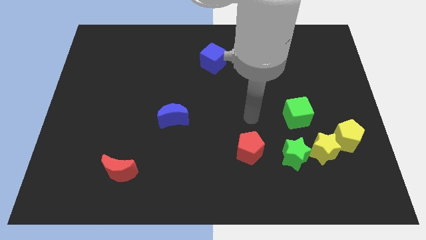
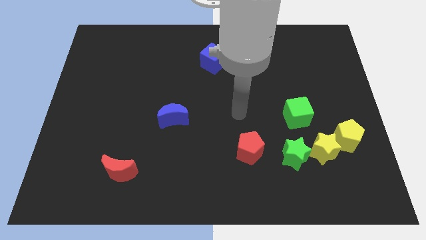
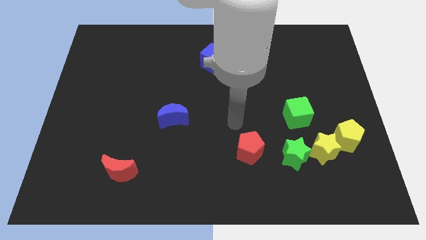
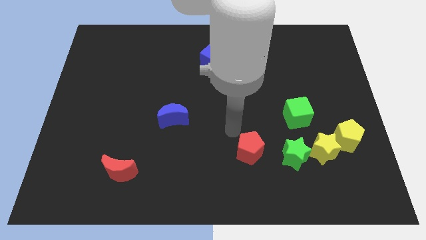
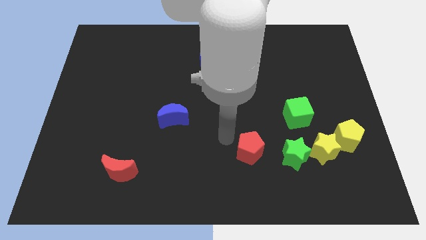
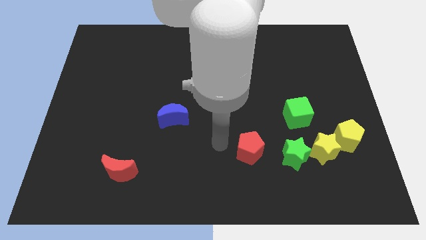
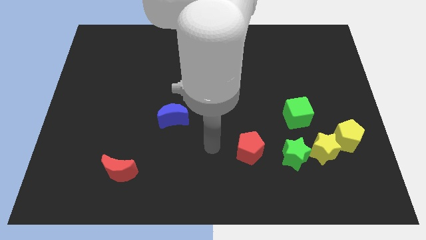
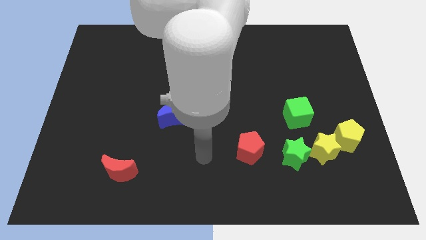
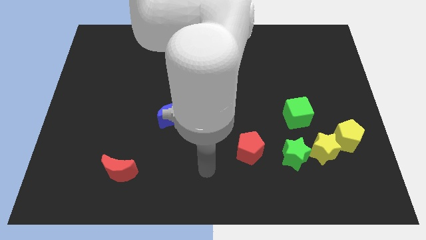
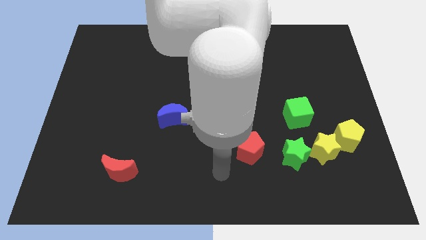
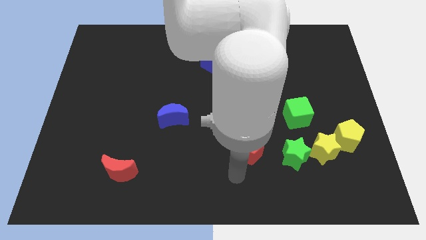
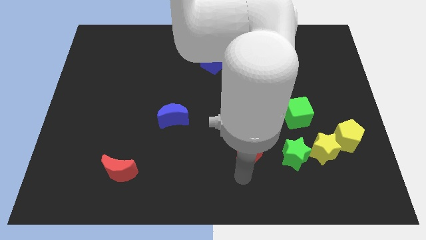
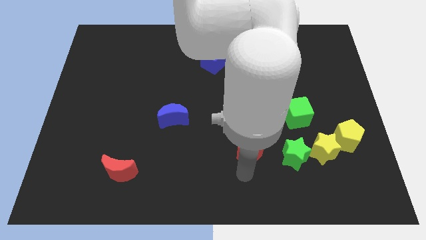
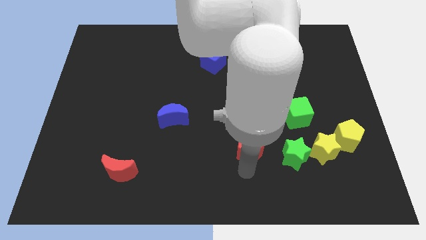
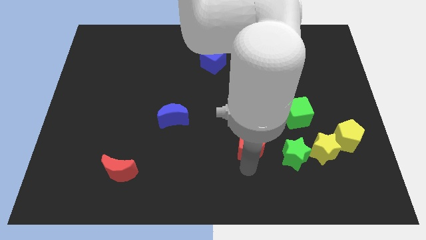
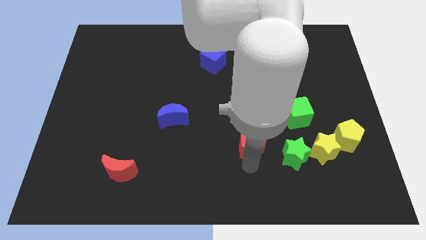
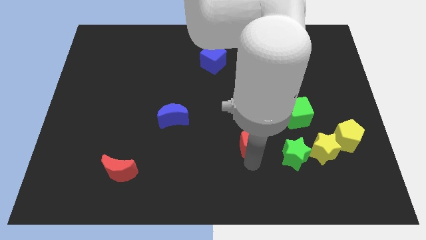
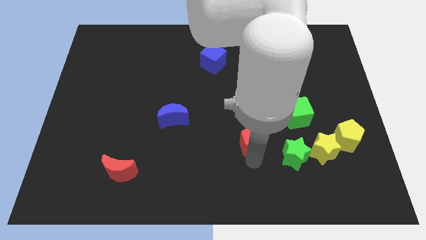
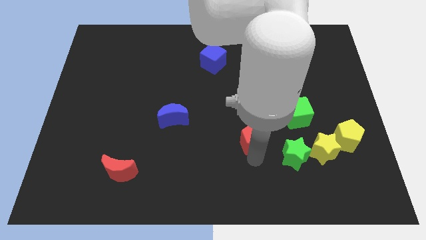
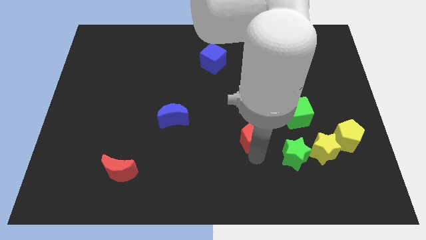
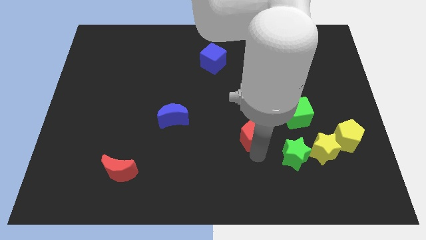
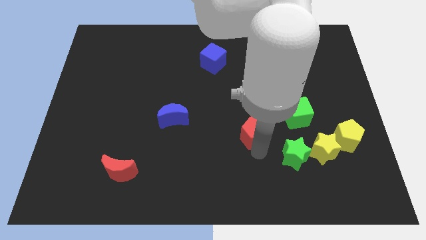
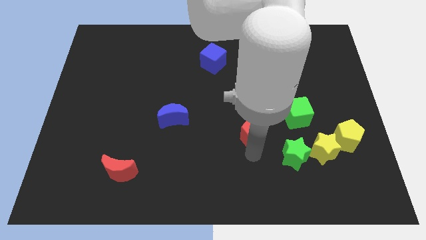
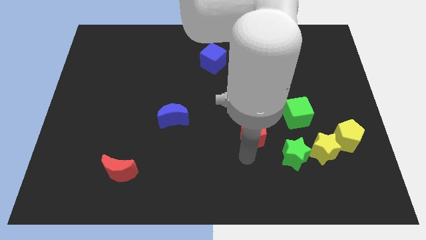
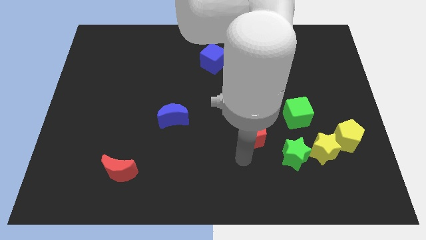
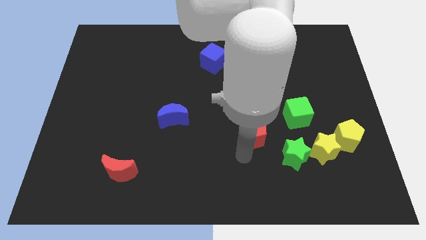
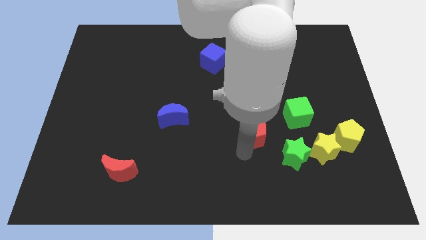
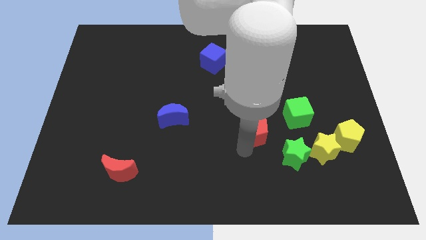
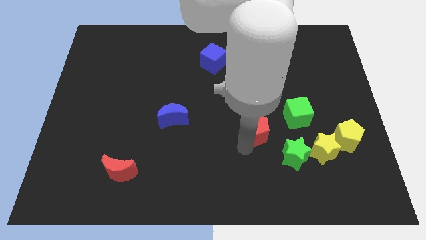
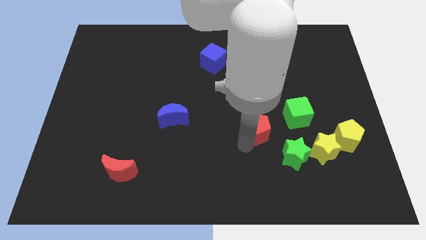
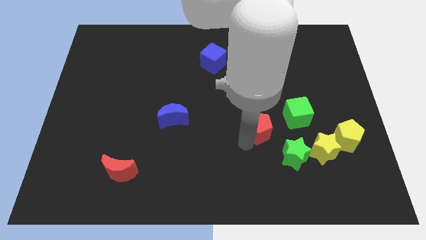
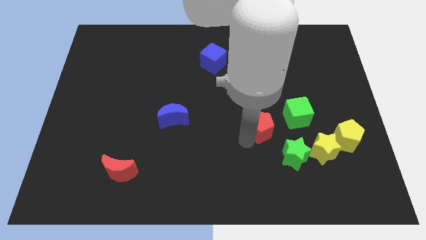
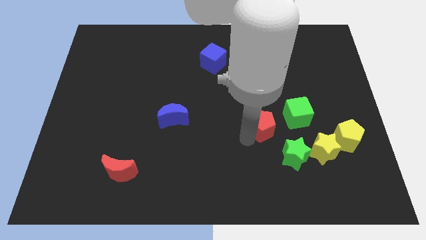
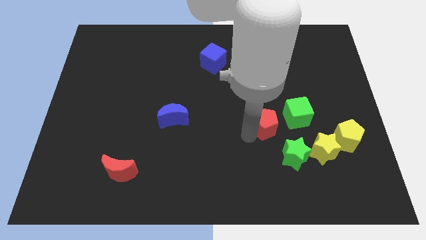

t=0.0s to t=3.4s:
slightly move the red pentagon up and right diagonally

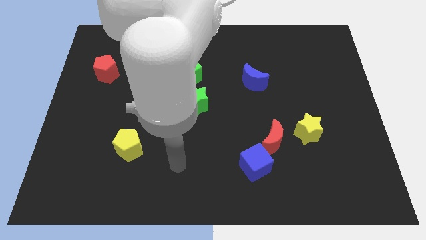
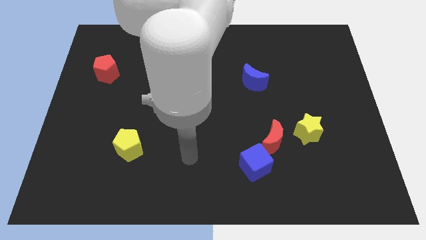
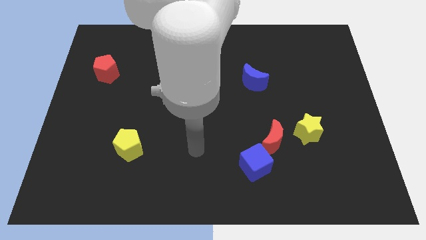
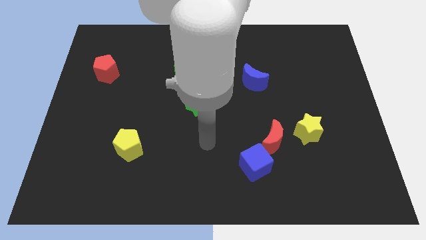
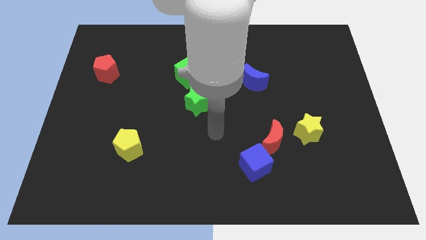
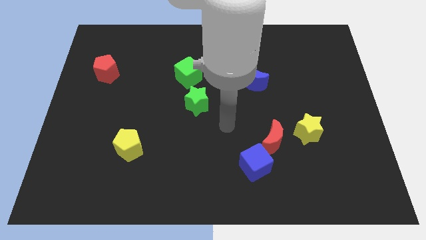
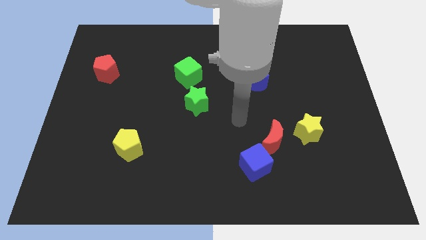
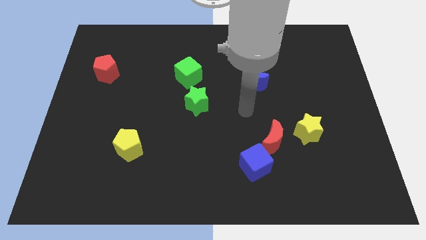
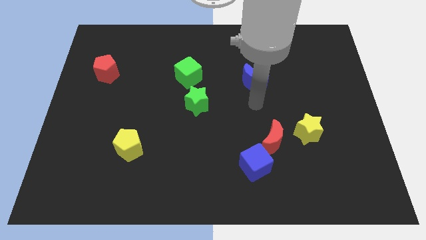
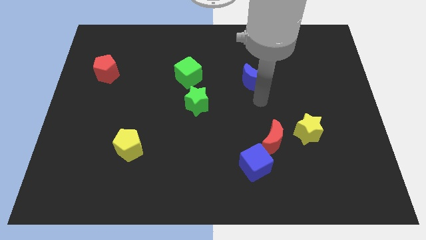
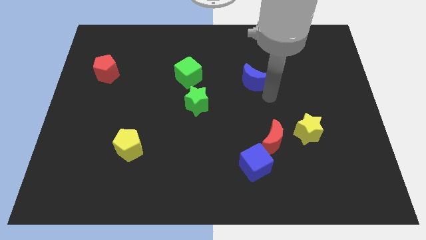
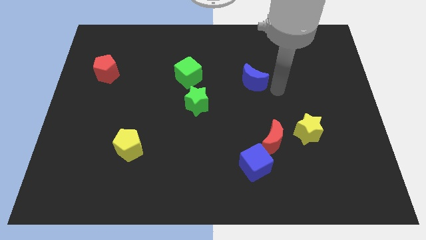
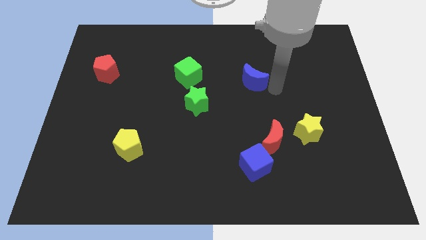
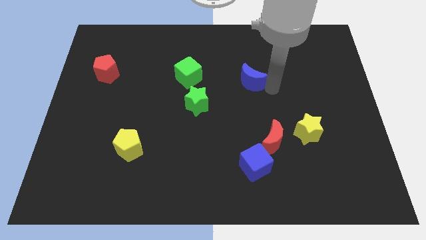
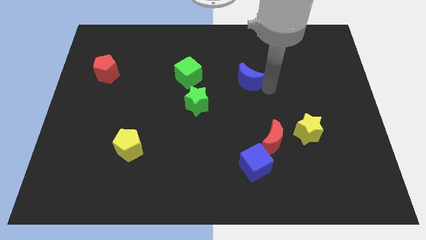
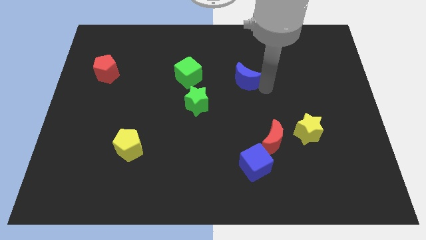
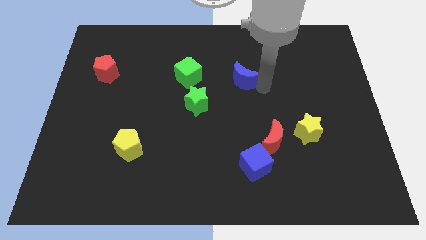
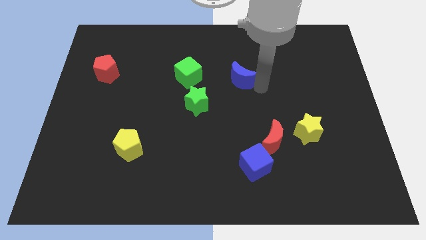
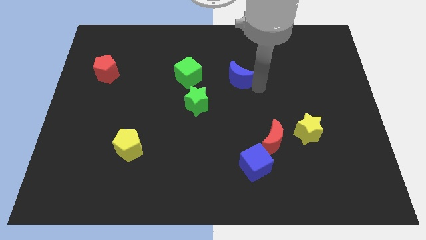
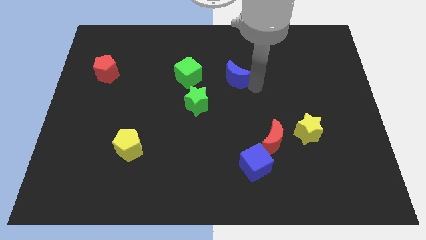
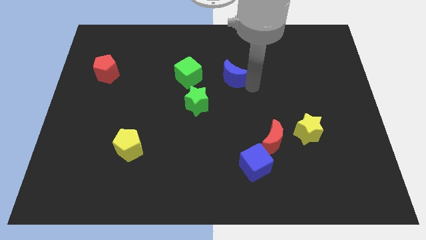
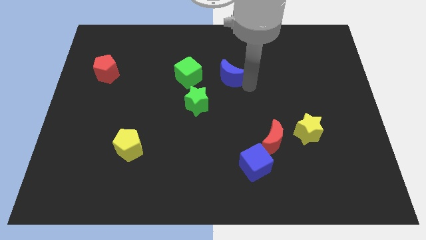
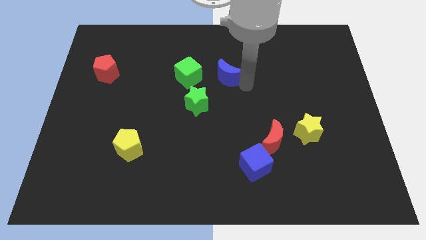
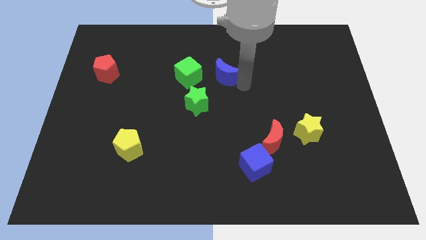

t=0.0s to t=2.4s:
slightly slide the blue moon to the left

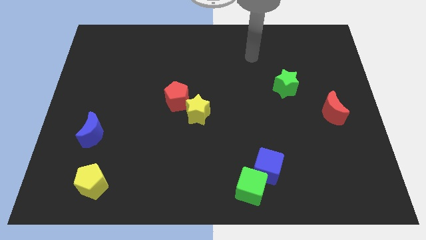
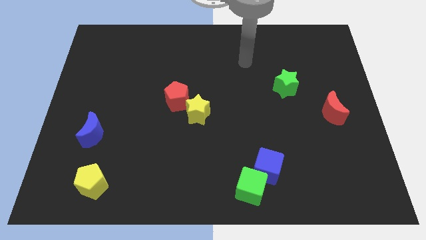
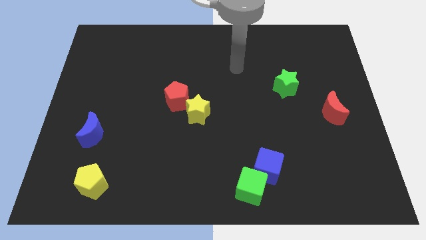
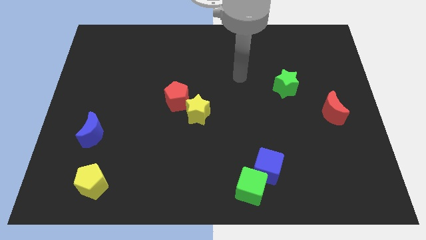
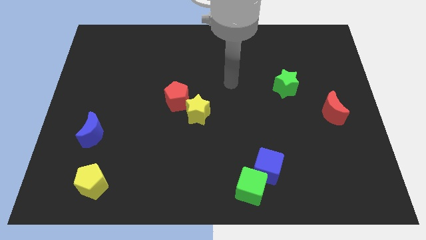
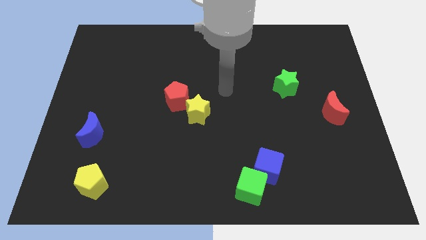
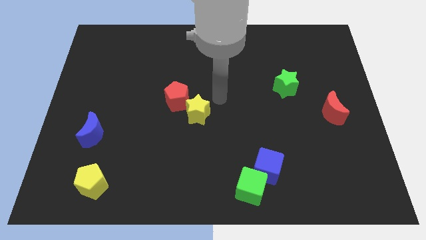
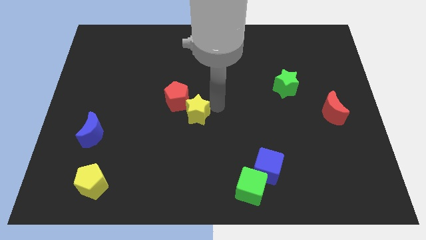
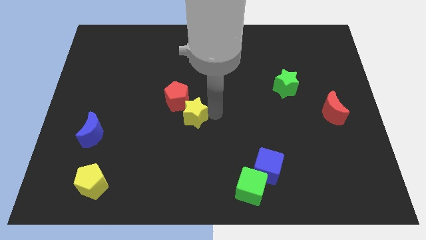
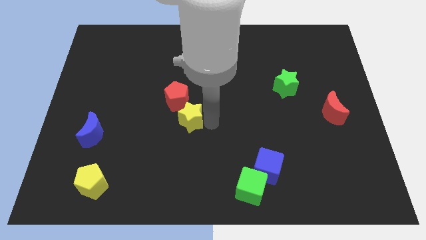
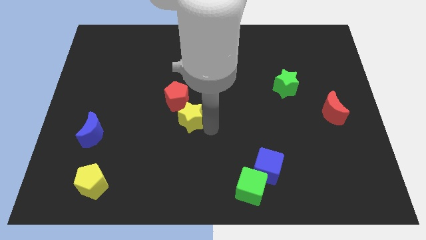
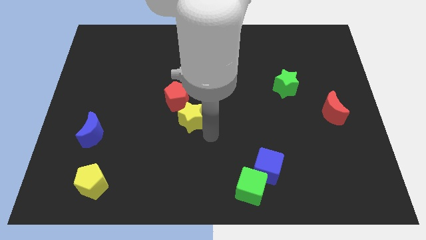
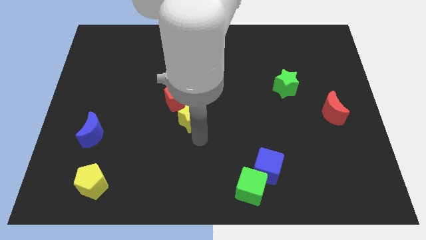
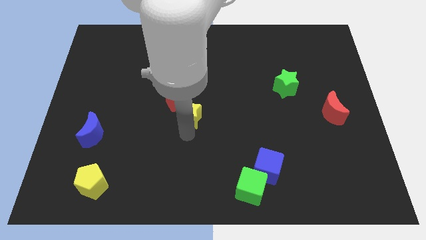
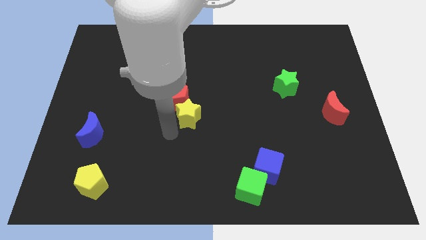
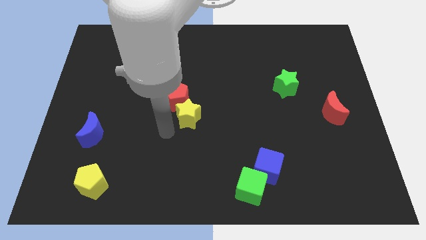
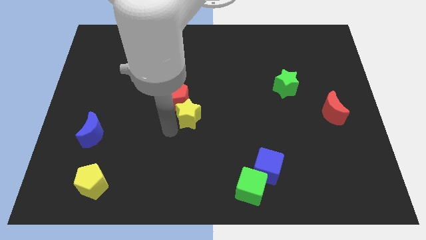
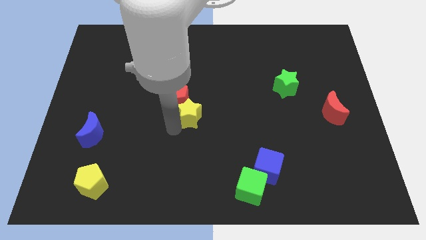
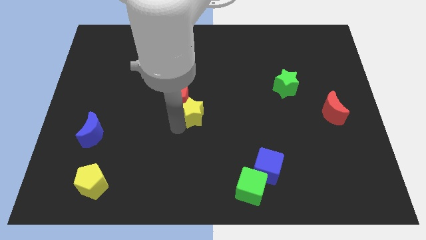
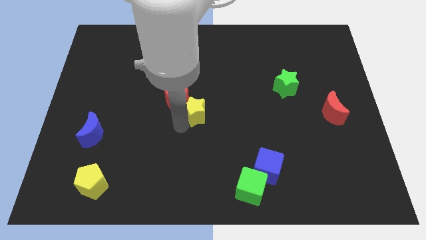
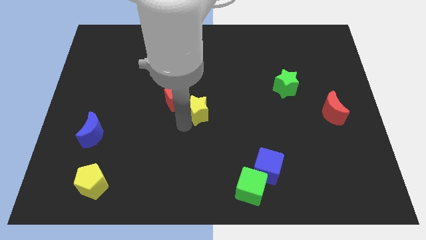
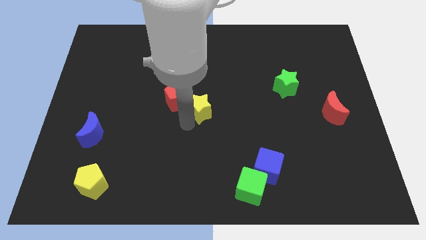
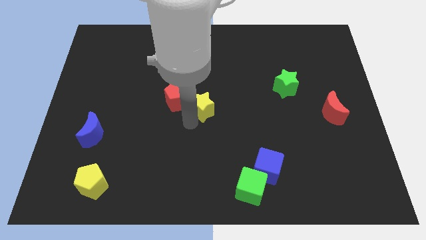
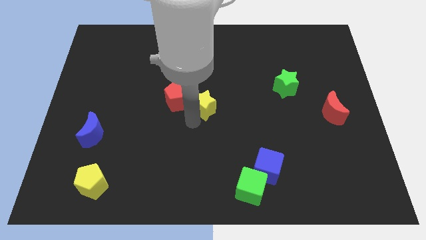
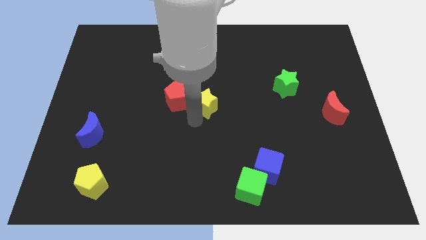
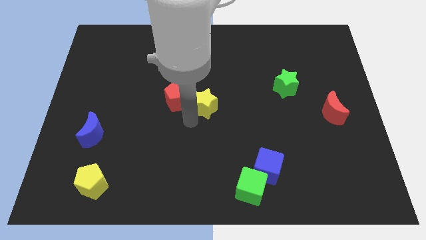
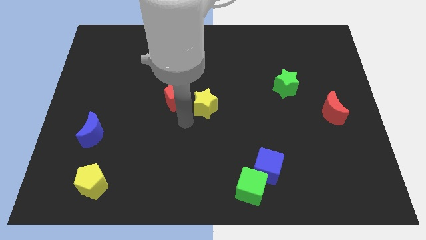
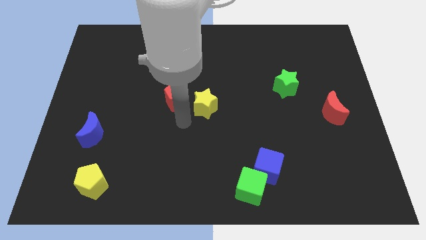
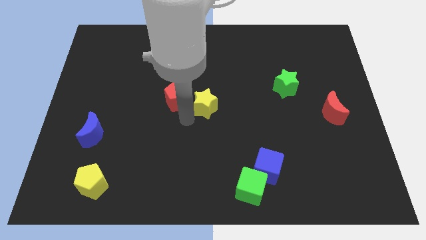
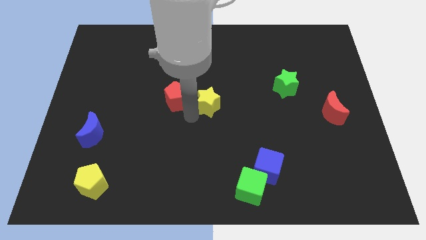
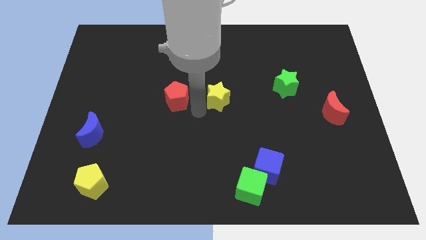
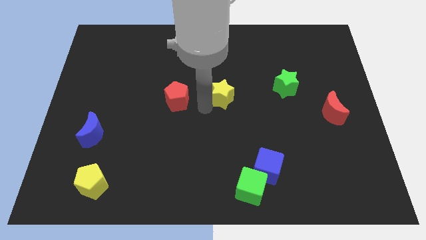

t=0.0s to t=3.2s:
slightly push the yellow star diagonally upwards and right
